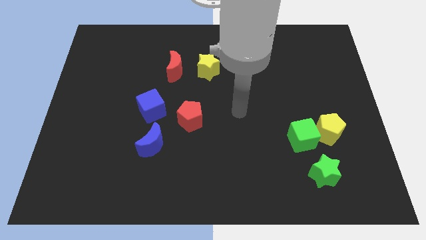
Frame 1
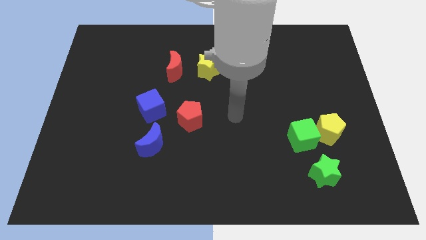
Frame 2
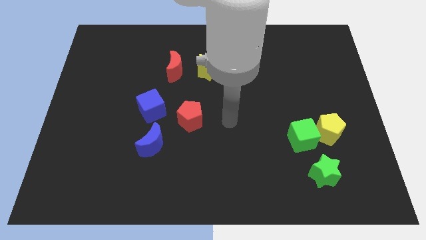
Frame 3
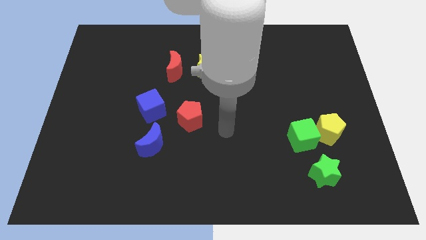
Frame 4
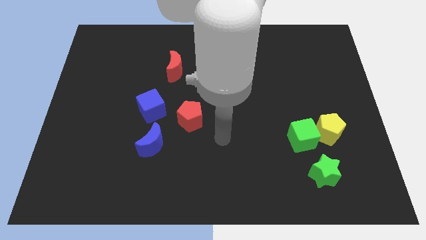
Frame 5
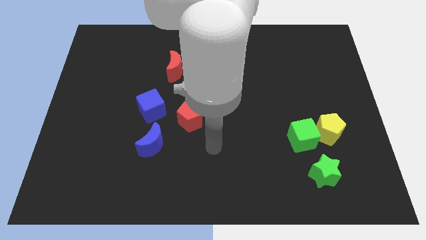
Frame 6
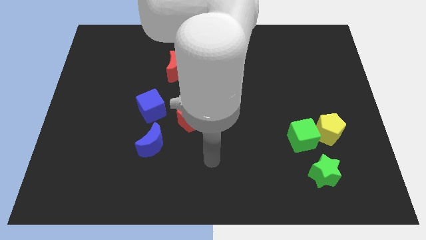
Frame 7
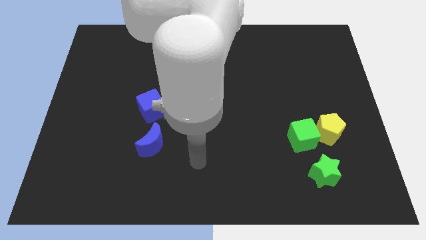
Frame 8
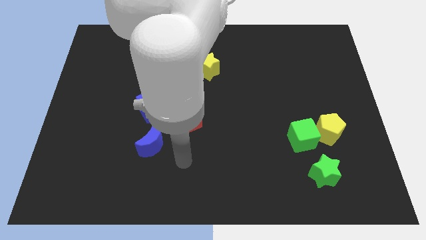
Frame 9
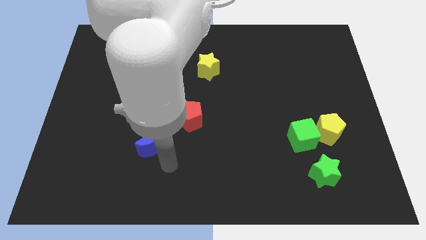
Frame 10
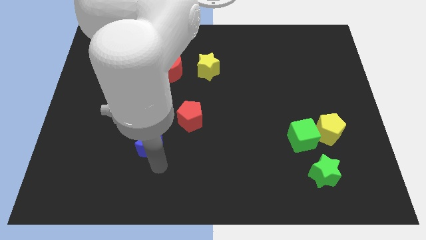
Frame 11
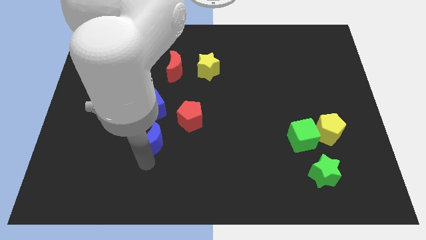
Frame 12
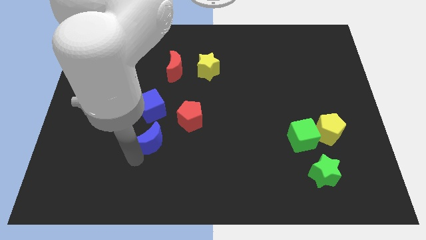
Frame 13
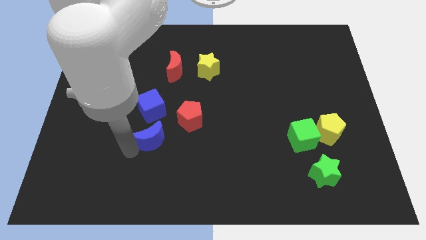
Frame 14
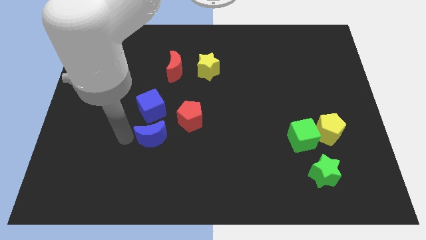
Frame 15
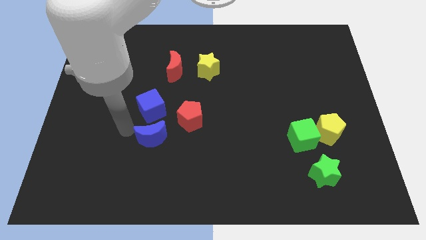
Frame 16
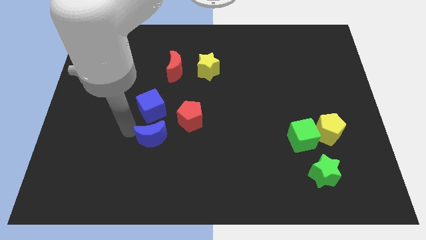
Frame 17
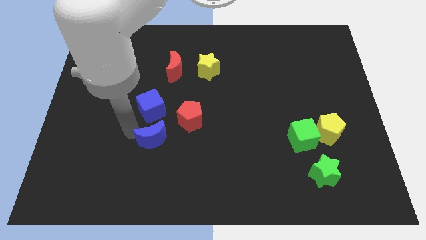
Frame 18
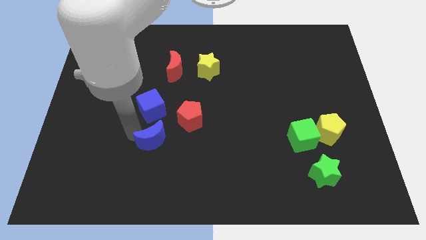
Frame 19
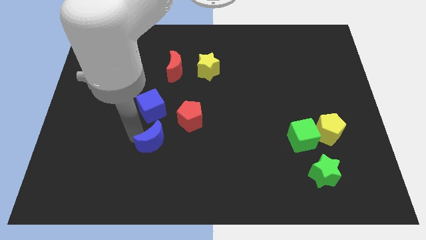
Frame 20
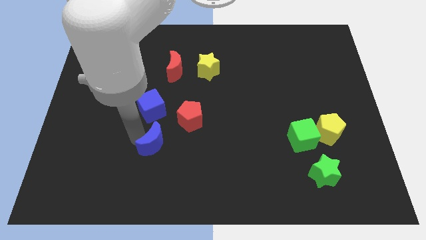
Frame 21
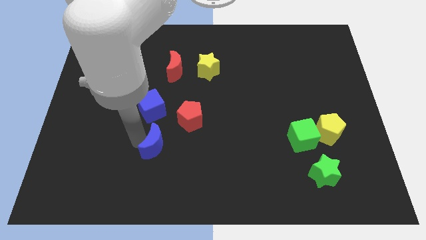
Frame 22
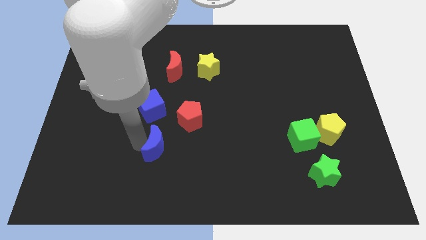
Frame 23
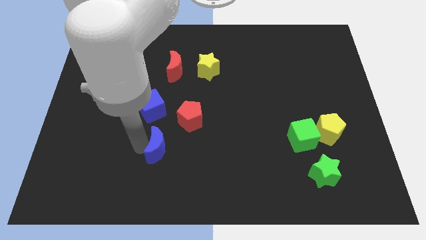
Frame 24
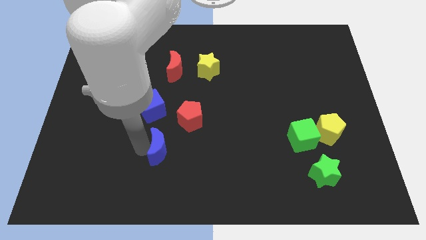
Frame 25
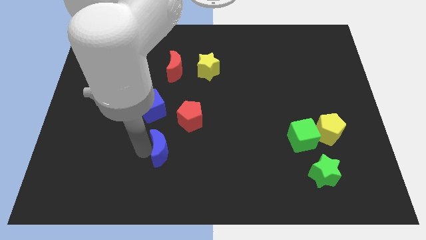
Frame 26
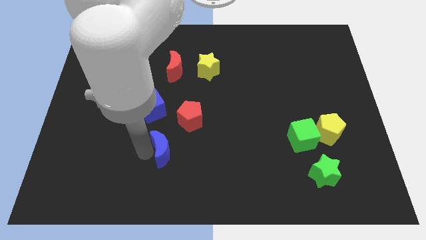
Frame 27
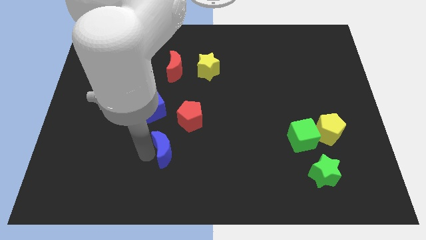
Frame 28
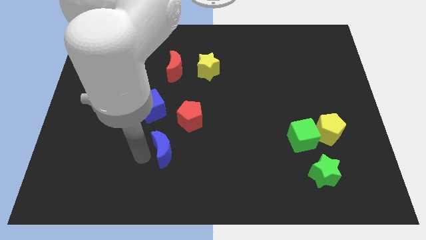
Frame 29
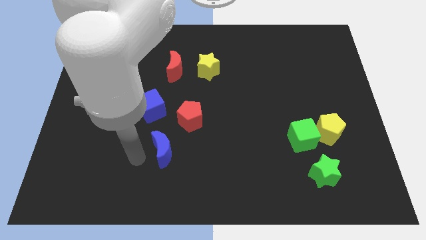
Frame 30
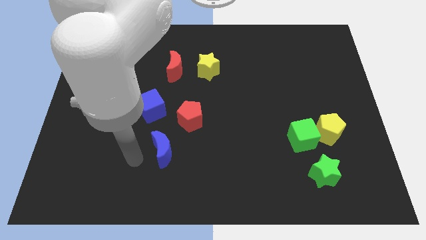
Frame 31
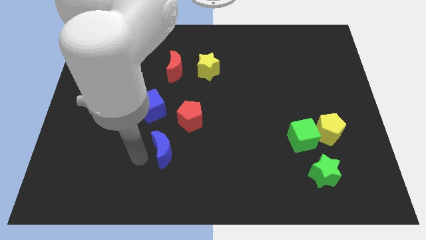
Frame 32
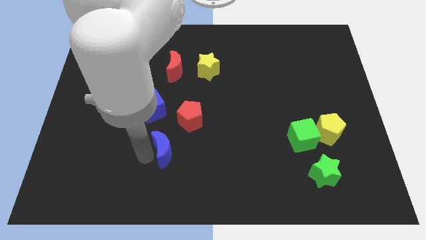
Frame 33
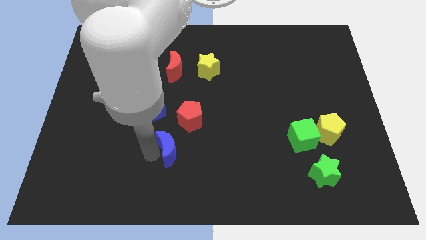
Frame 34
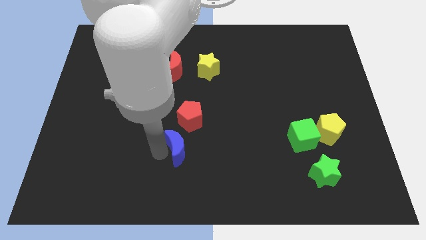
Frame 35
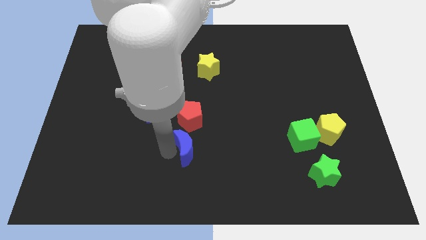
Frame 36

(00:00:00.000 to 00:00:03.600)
push the blue moon to the right slightly

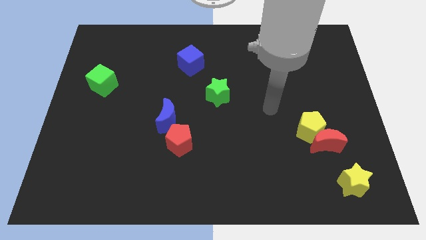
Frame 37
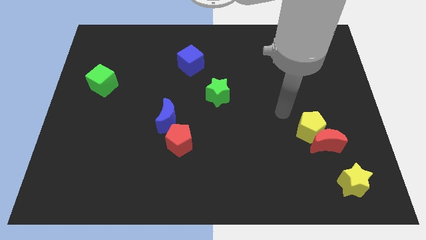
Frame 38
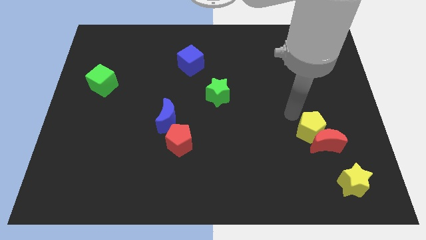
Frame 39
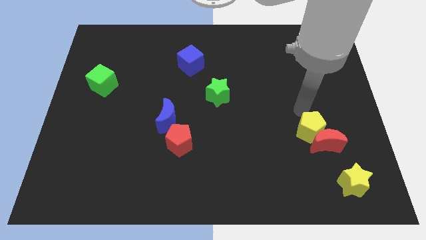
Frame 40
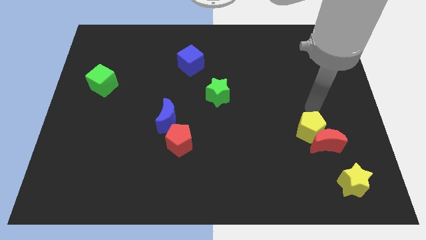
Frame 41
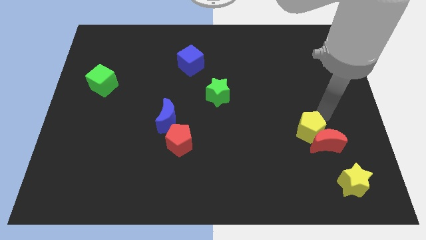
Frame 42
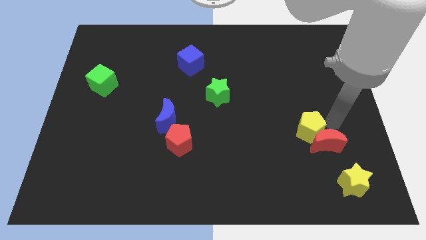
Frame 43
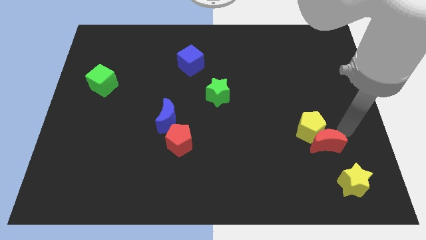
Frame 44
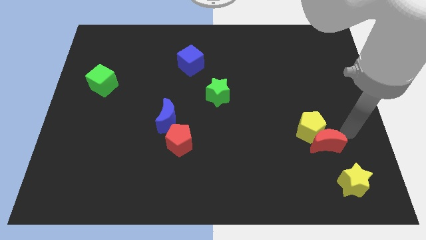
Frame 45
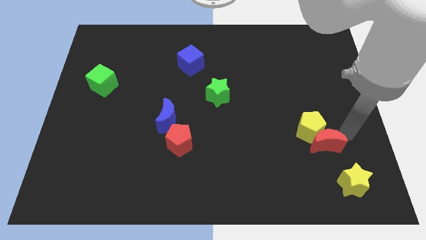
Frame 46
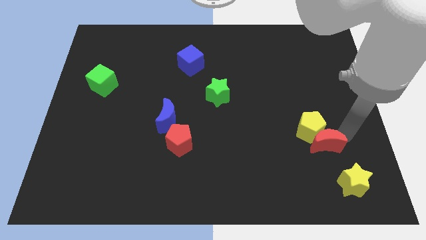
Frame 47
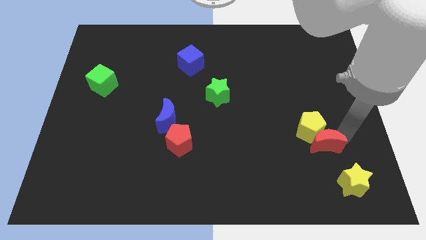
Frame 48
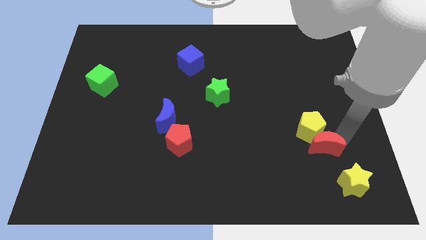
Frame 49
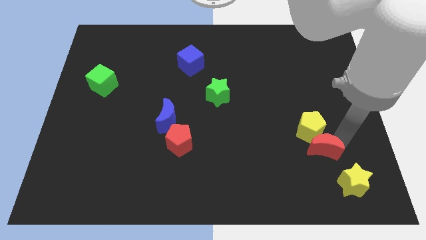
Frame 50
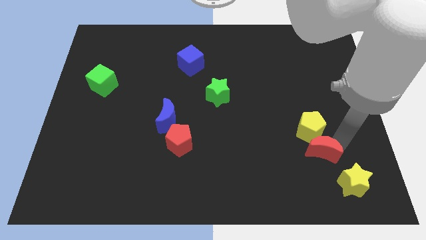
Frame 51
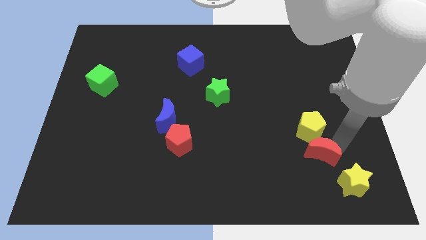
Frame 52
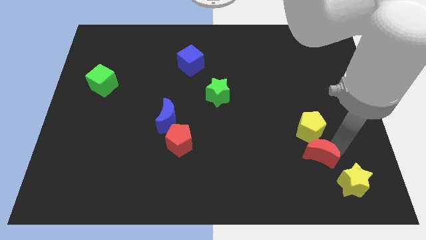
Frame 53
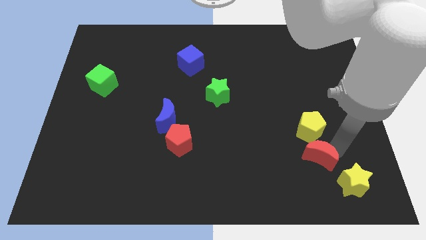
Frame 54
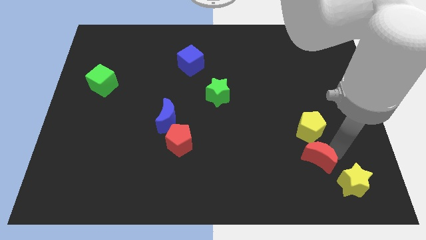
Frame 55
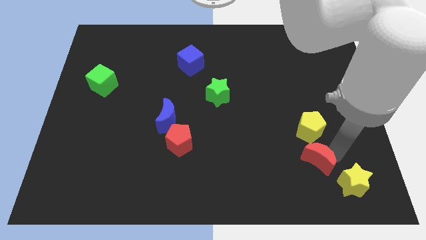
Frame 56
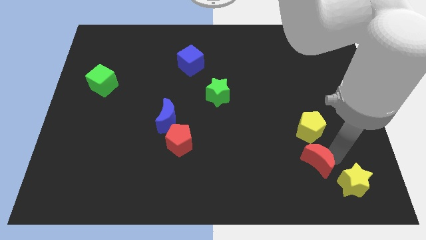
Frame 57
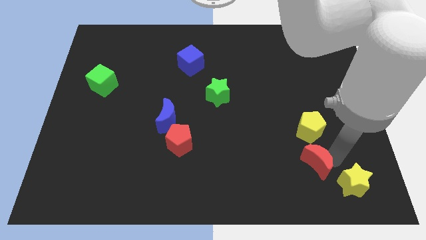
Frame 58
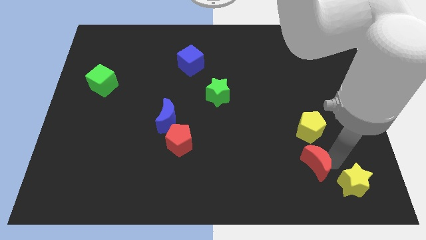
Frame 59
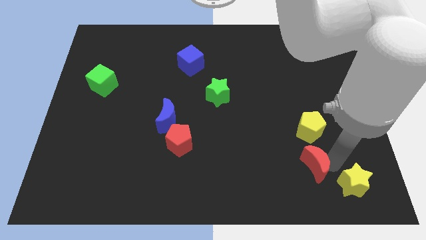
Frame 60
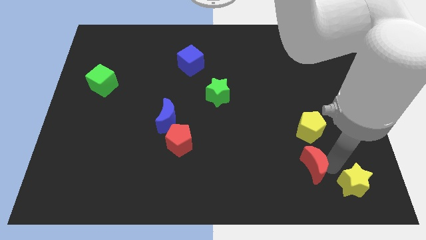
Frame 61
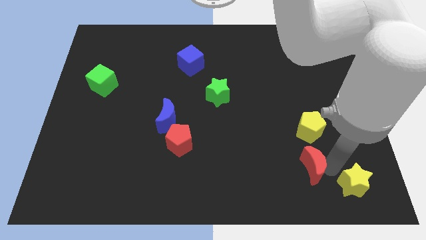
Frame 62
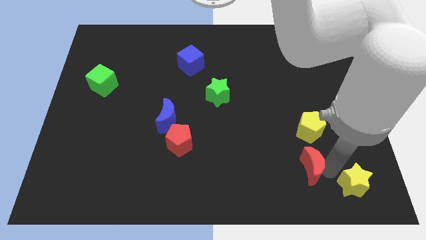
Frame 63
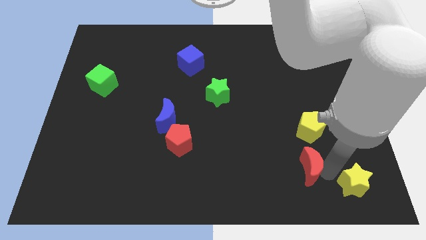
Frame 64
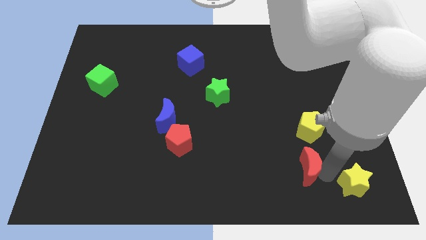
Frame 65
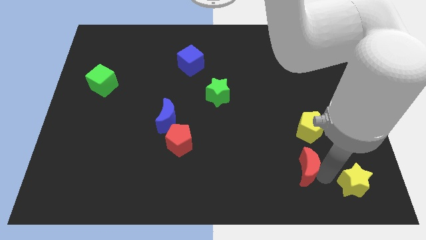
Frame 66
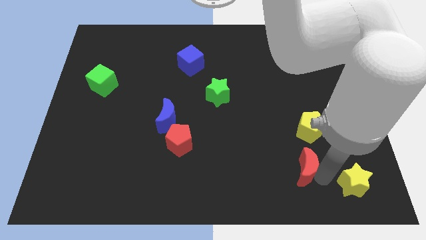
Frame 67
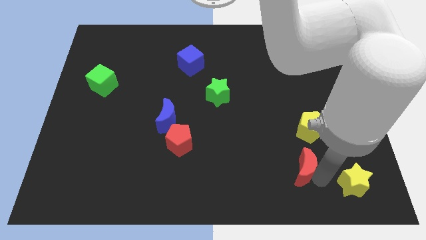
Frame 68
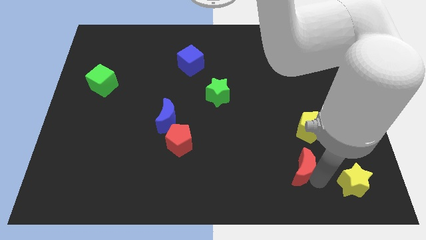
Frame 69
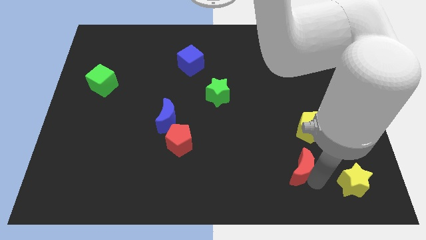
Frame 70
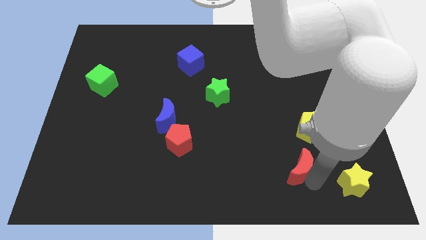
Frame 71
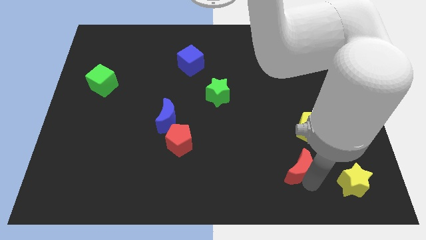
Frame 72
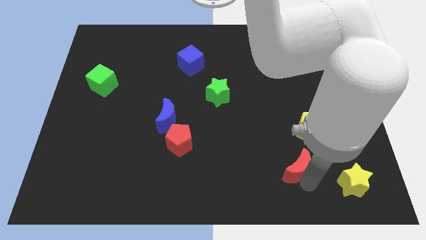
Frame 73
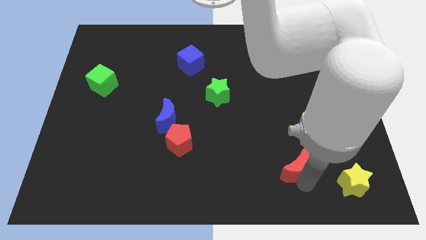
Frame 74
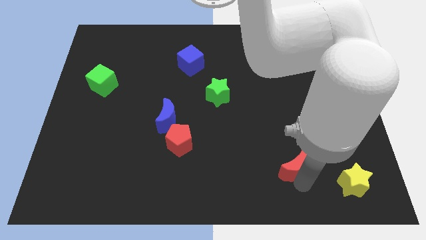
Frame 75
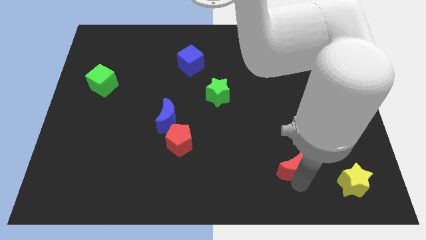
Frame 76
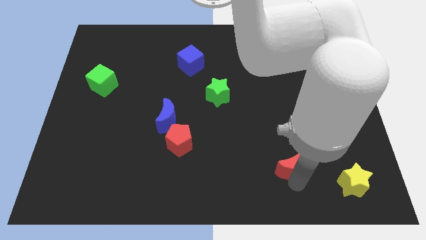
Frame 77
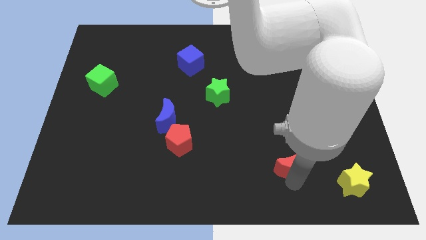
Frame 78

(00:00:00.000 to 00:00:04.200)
slide the red moon a little bit left

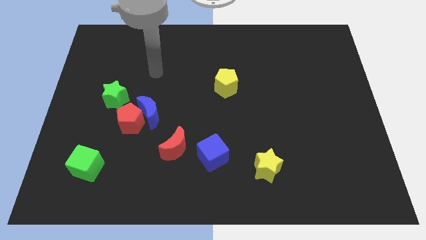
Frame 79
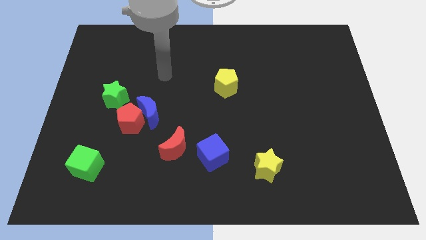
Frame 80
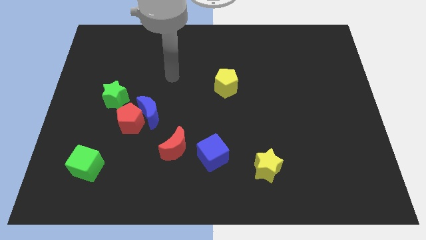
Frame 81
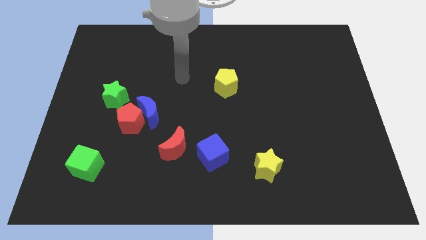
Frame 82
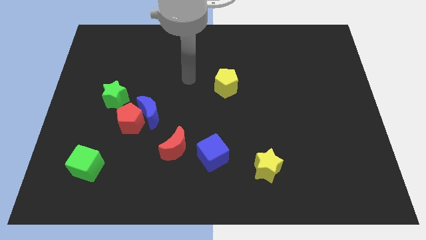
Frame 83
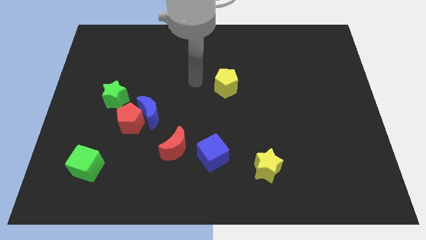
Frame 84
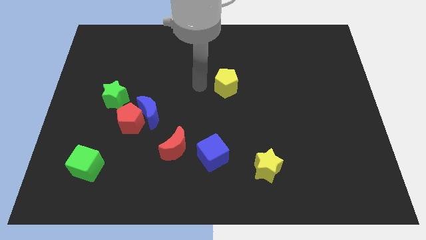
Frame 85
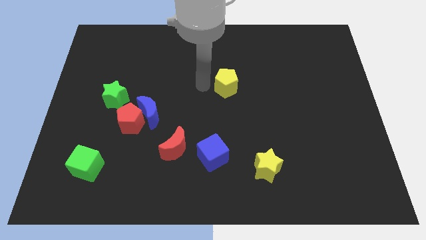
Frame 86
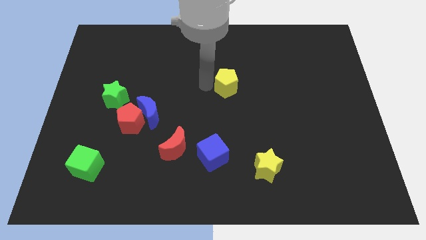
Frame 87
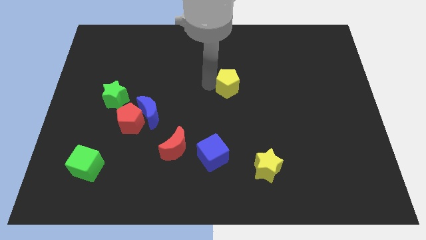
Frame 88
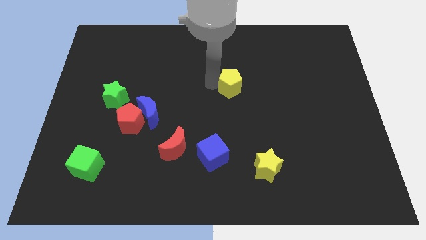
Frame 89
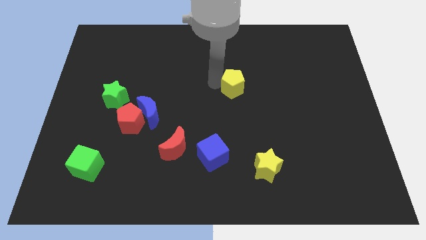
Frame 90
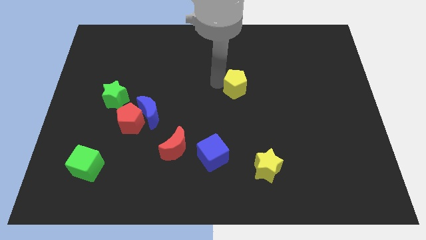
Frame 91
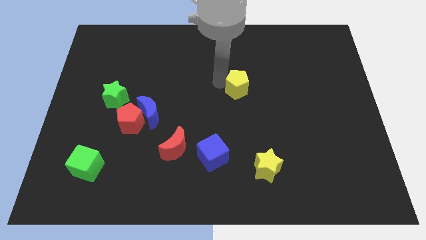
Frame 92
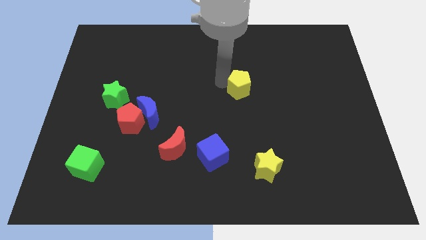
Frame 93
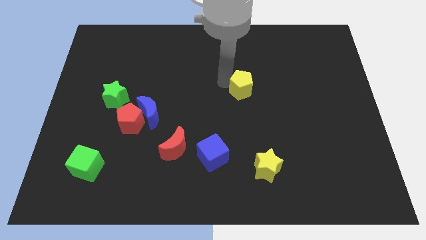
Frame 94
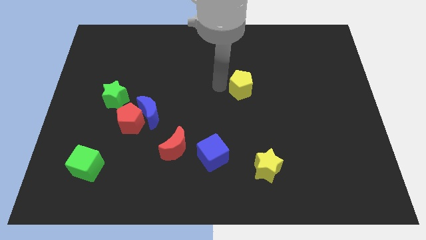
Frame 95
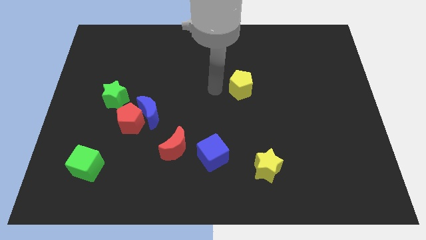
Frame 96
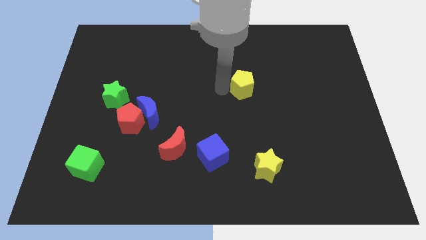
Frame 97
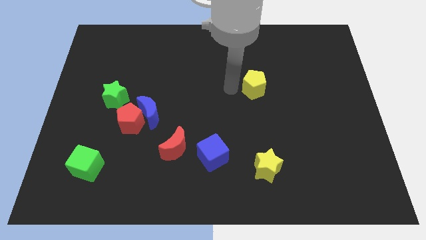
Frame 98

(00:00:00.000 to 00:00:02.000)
slightly push the yellow pentagon to the right
